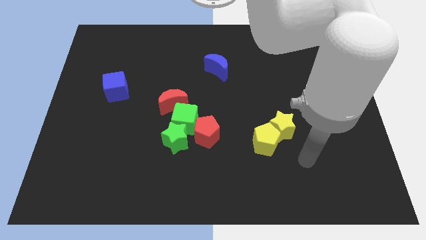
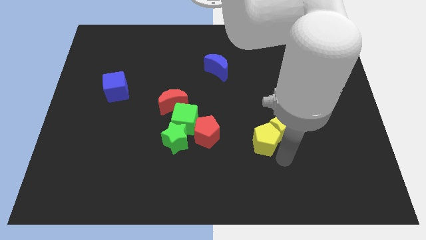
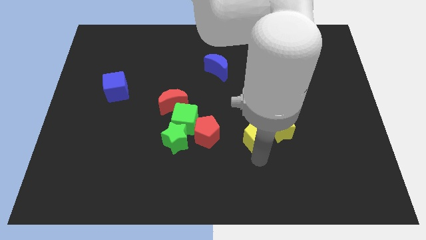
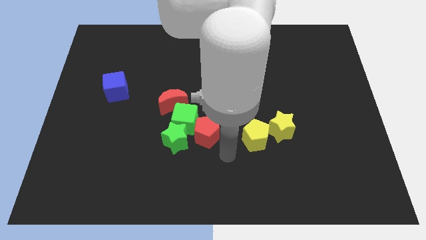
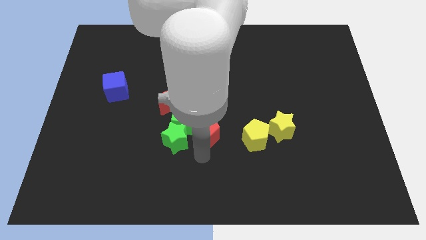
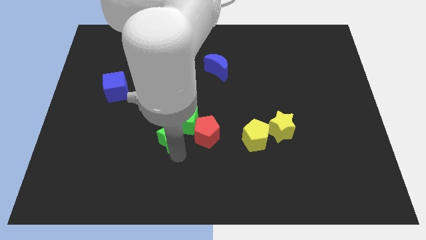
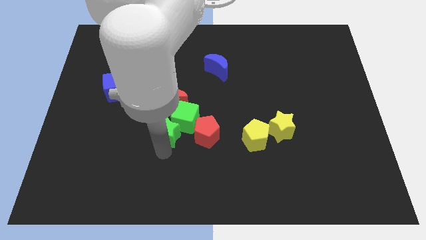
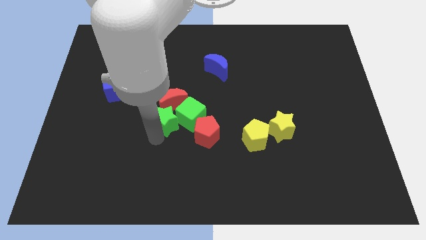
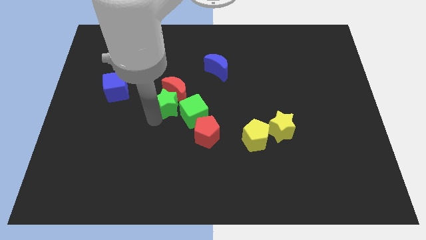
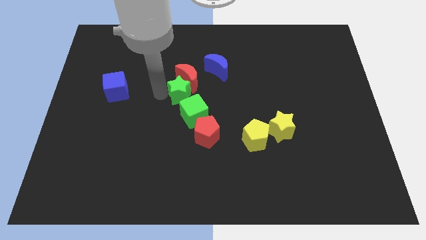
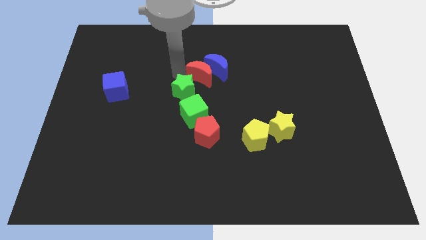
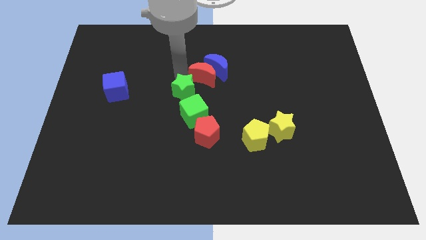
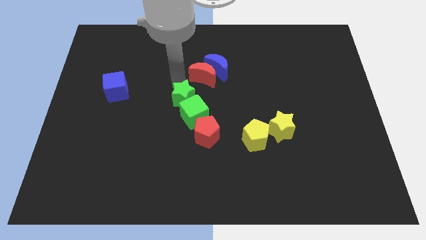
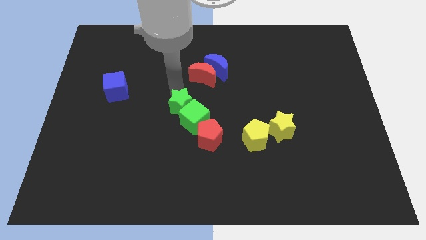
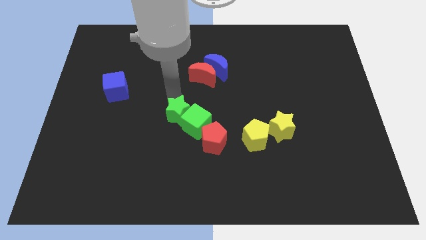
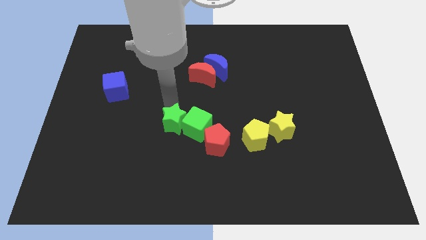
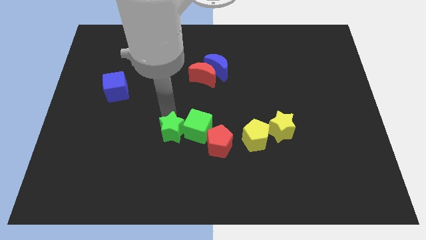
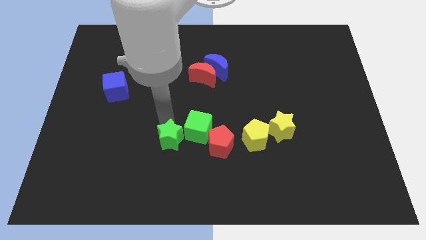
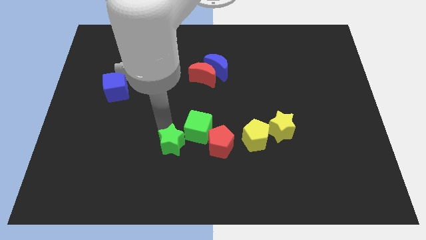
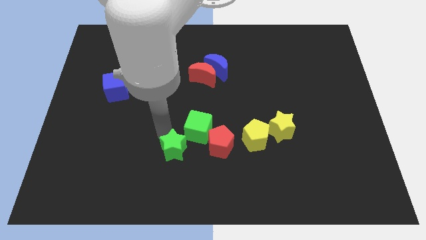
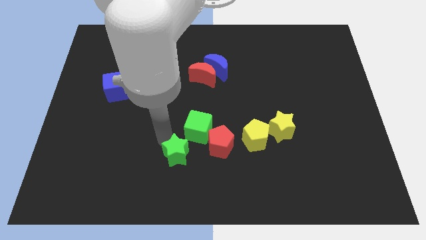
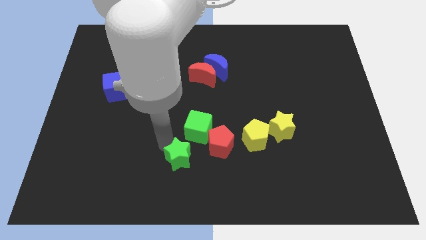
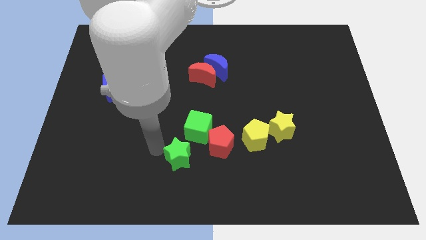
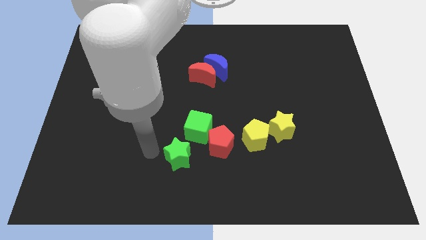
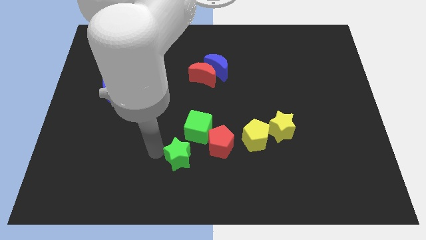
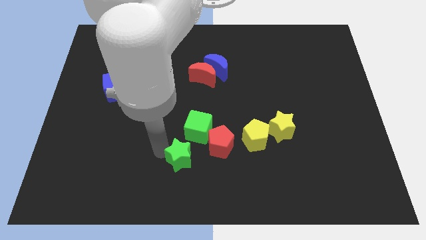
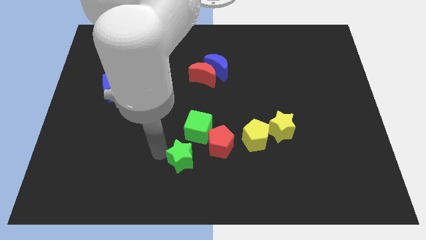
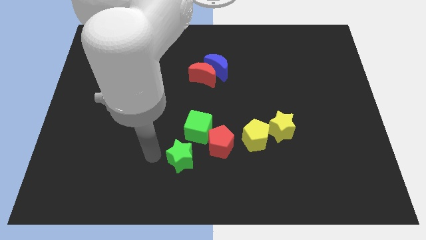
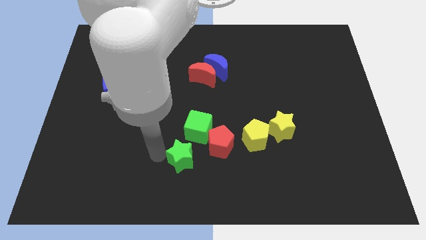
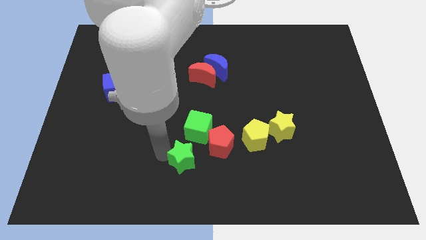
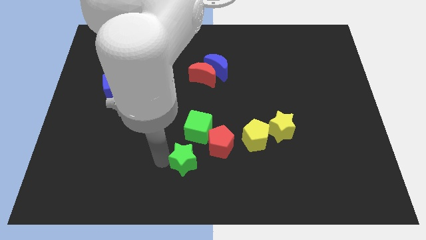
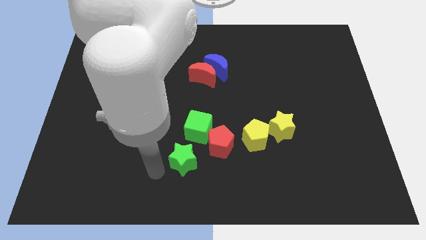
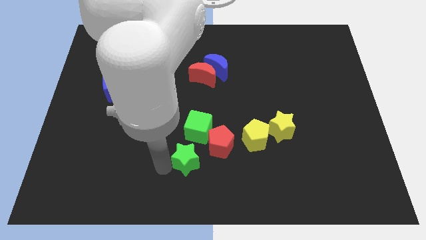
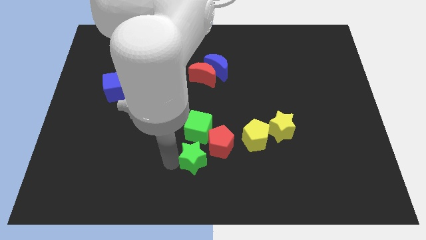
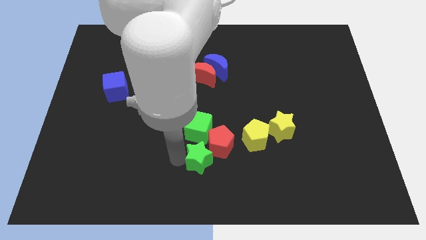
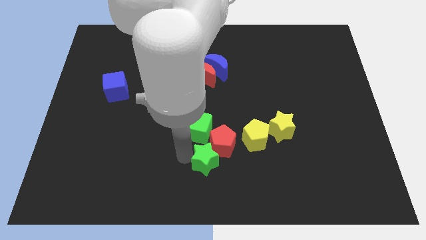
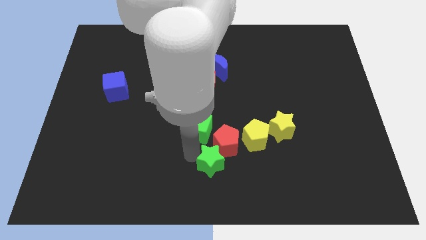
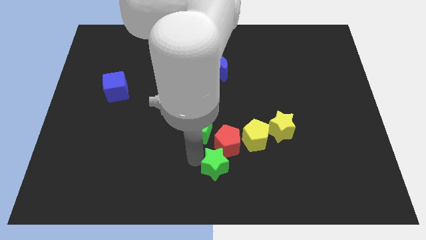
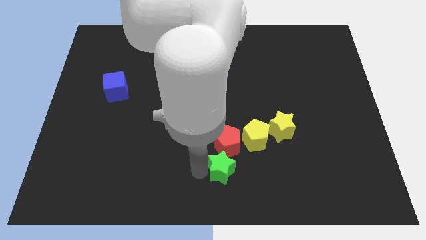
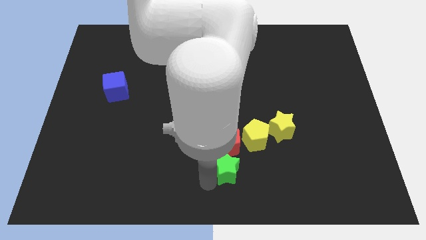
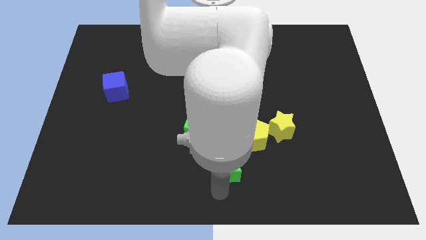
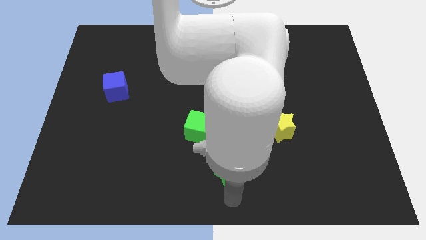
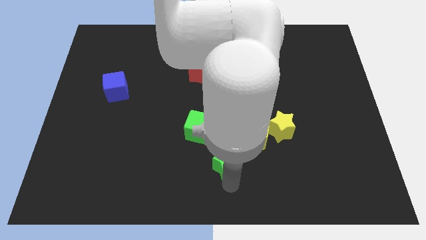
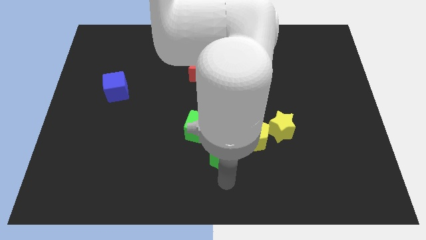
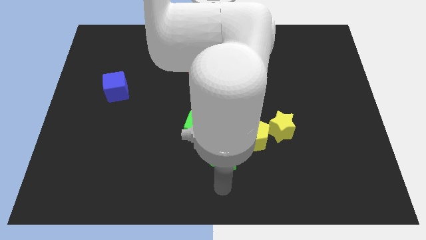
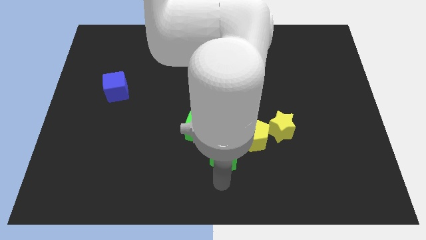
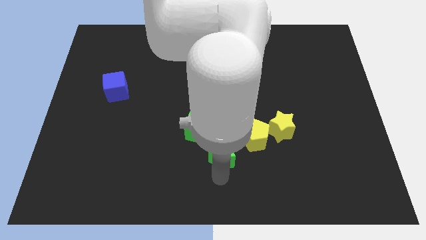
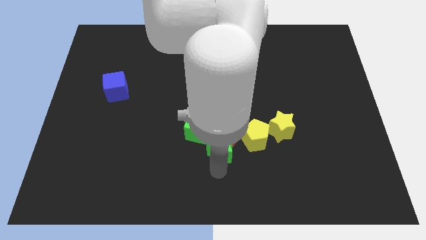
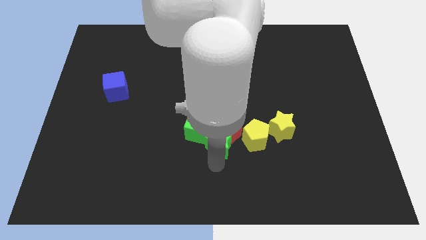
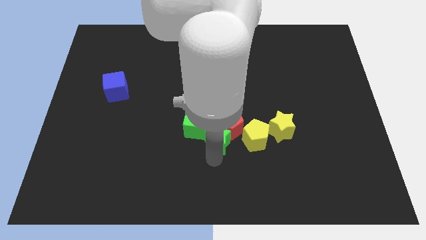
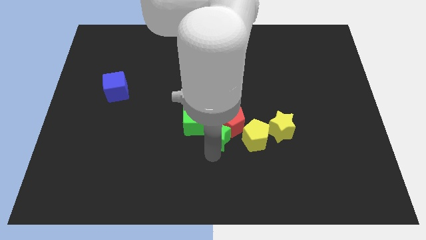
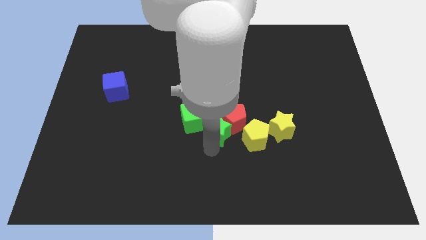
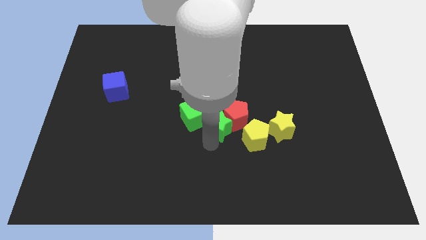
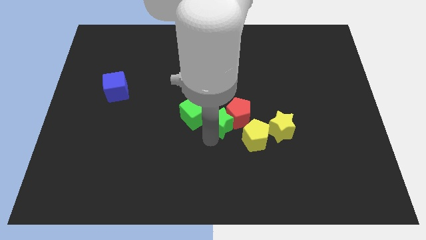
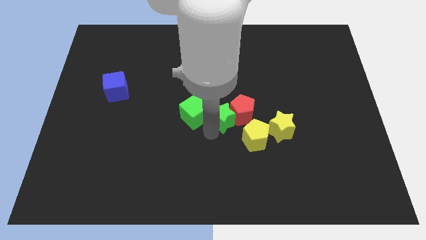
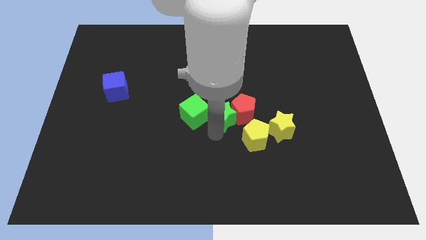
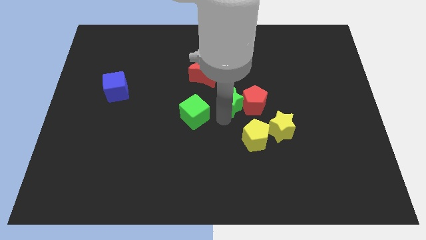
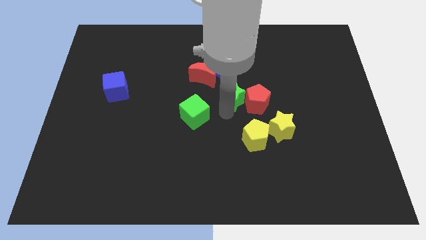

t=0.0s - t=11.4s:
slide the green star to the bottom right side of the blue moon

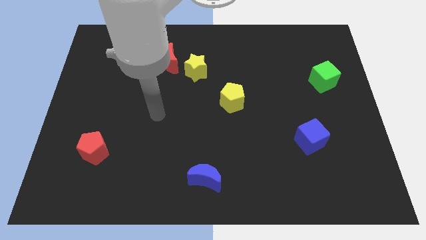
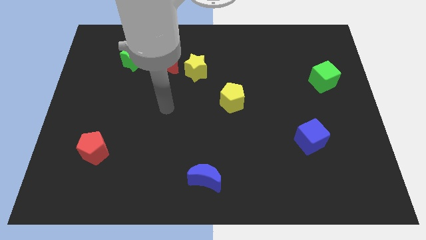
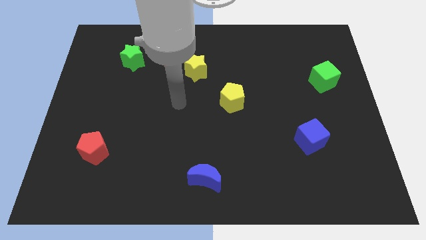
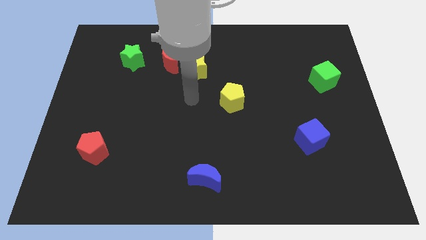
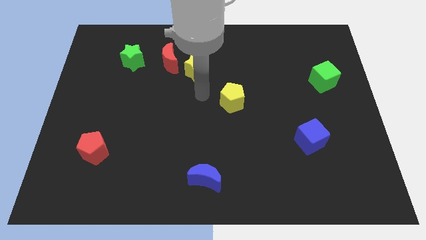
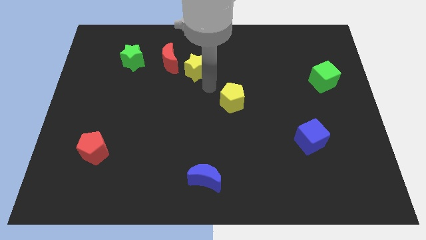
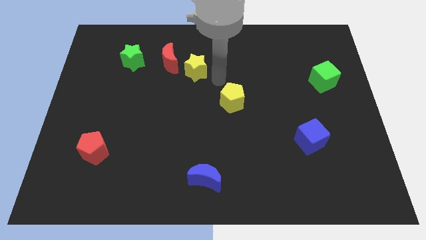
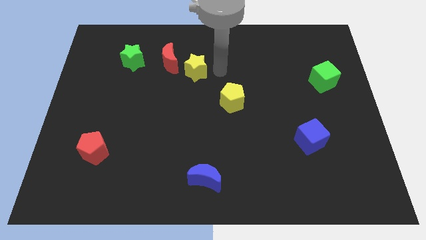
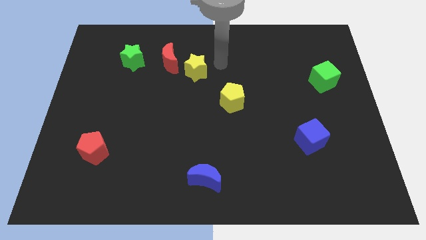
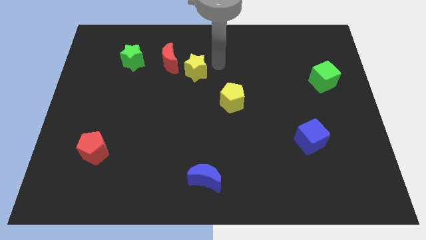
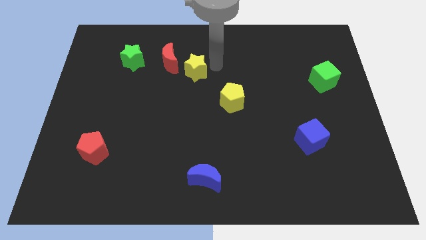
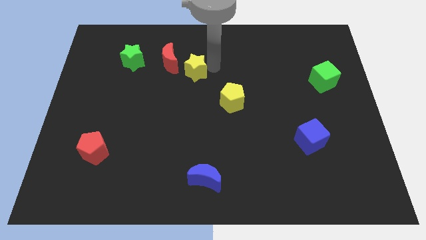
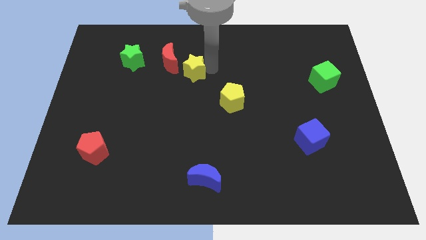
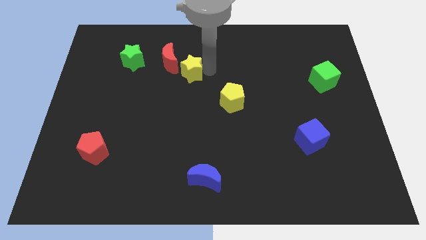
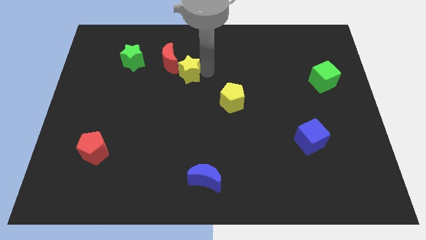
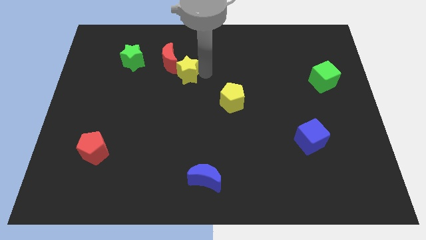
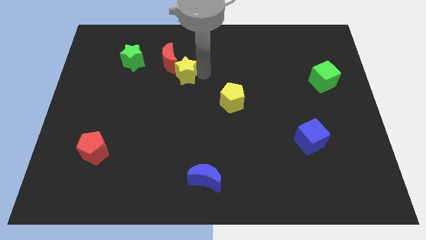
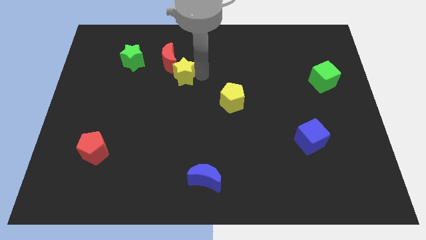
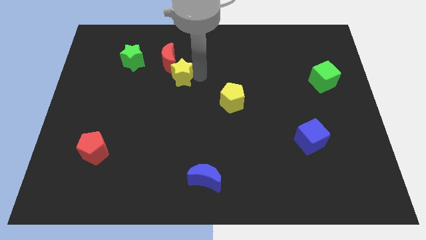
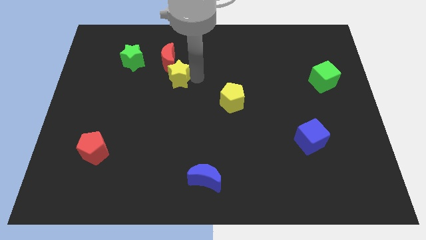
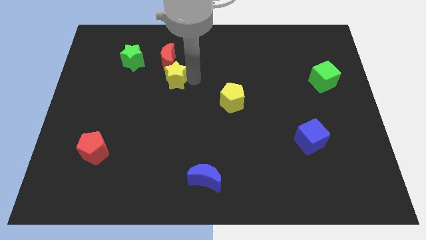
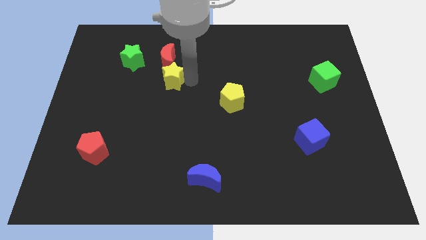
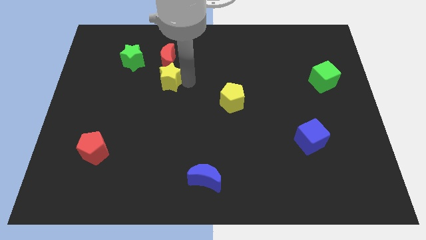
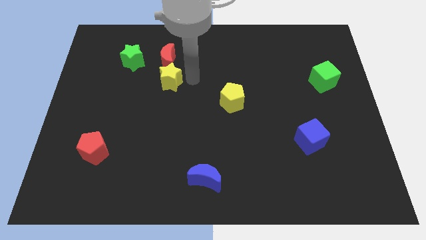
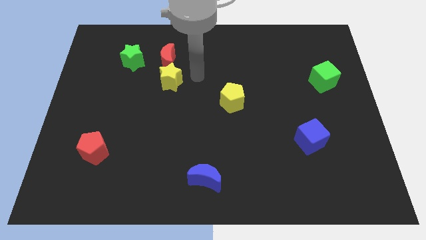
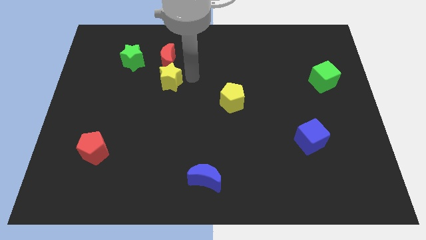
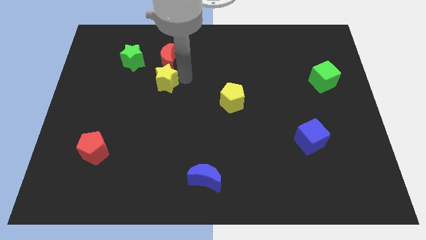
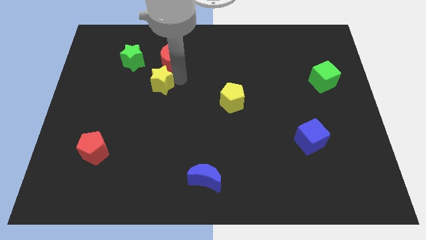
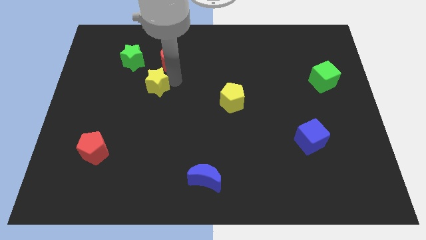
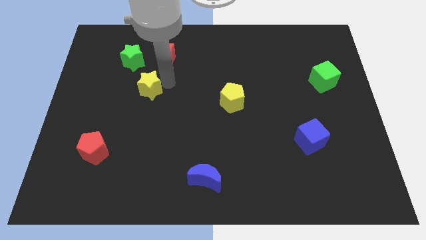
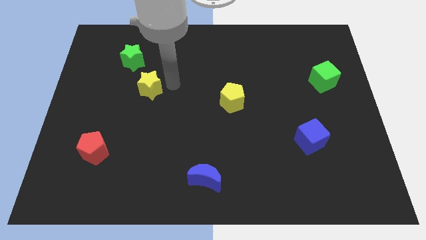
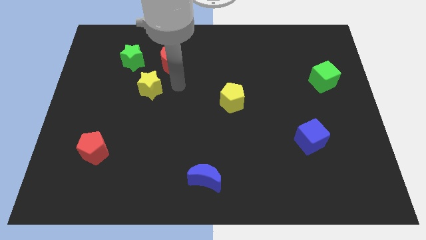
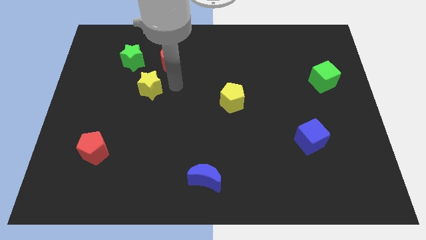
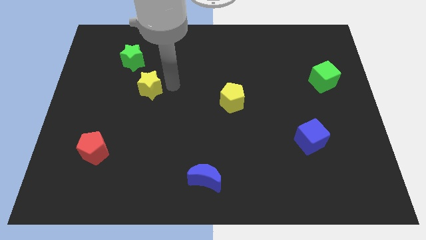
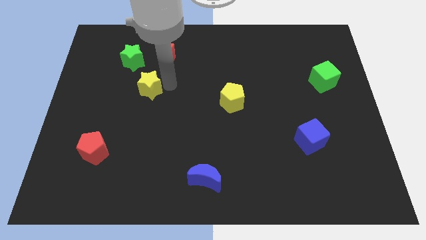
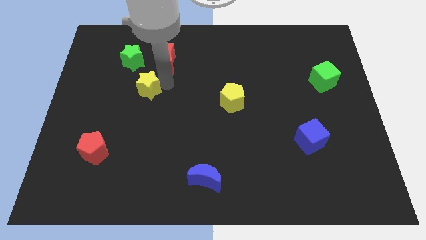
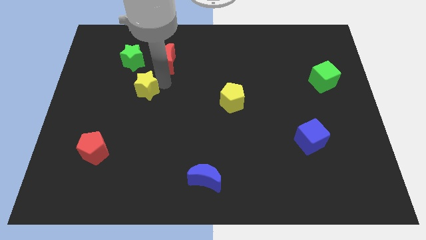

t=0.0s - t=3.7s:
put the yellow star to the bottom of the green star
